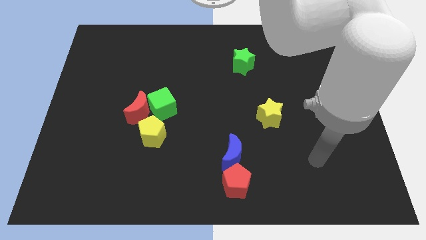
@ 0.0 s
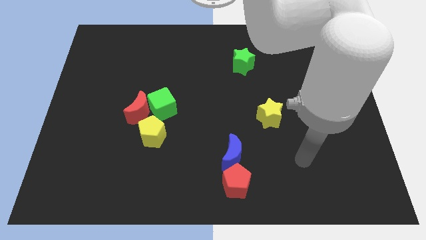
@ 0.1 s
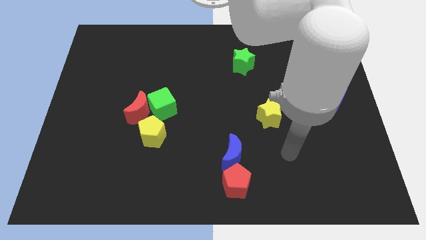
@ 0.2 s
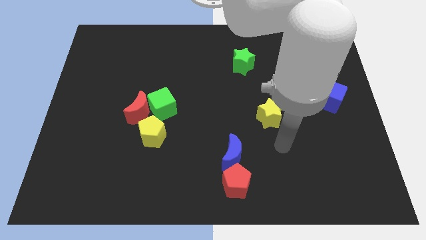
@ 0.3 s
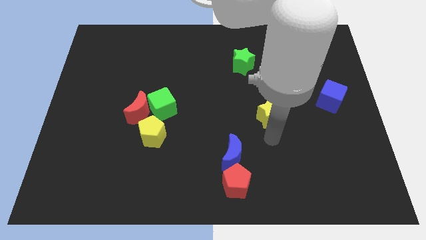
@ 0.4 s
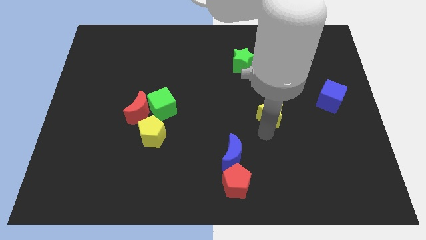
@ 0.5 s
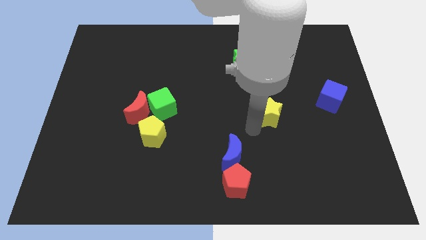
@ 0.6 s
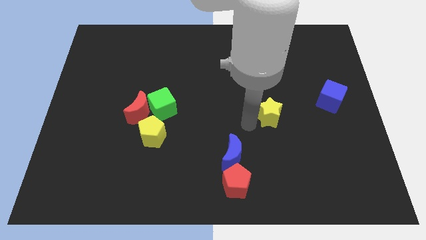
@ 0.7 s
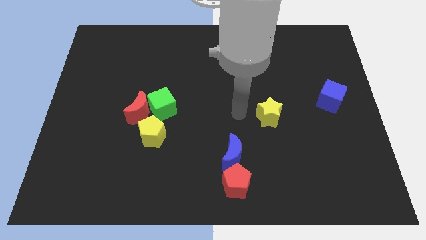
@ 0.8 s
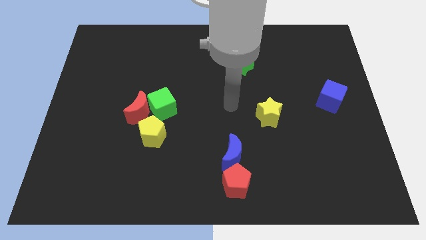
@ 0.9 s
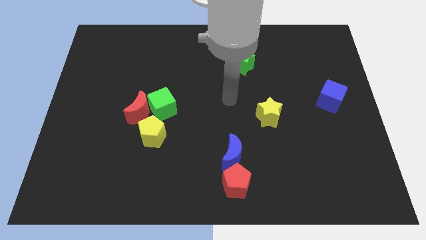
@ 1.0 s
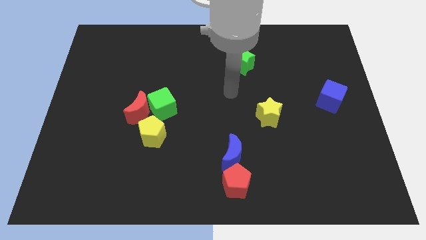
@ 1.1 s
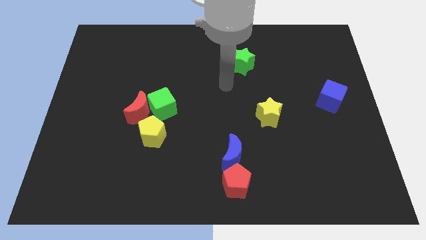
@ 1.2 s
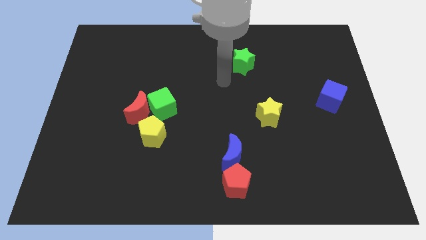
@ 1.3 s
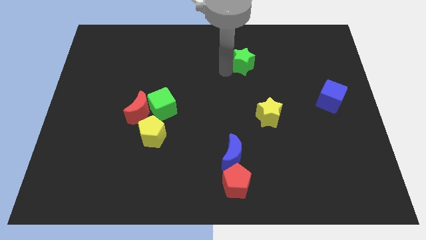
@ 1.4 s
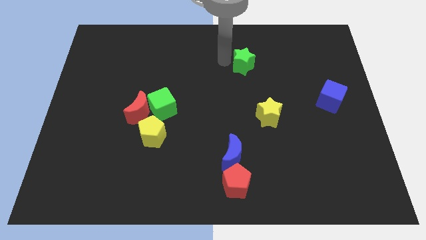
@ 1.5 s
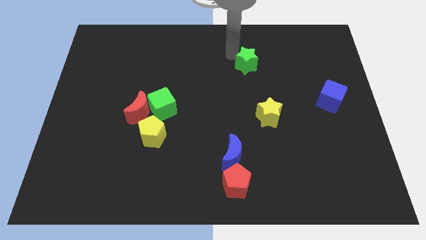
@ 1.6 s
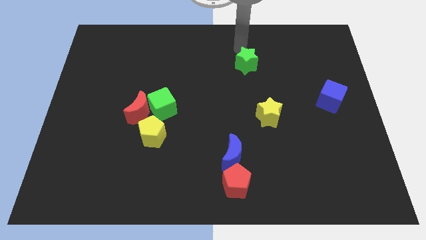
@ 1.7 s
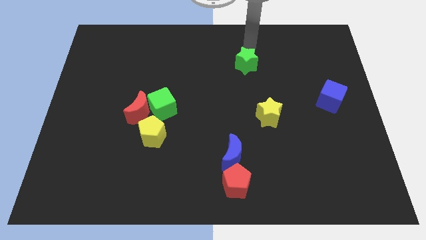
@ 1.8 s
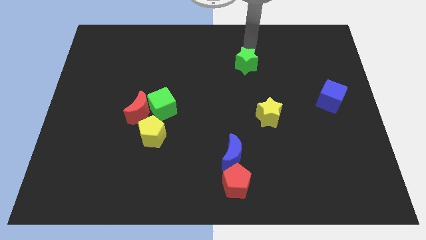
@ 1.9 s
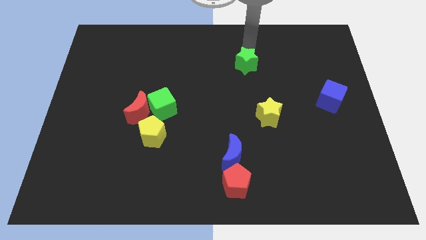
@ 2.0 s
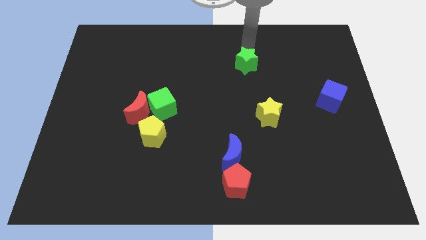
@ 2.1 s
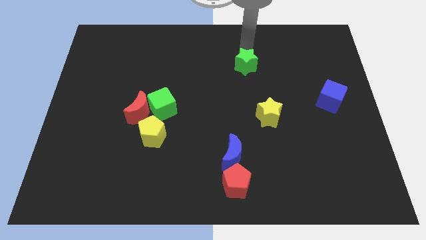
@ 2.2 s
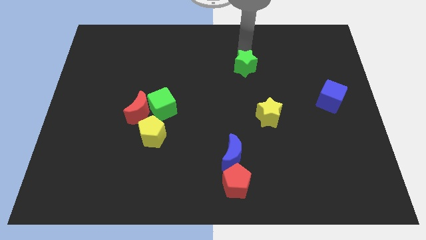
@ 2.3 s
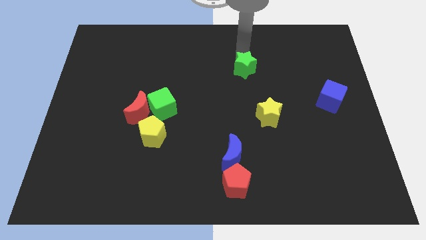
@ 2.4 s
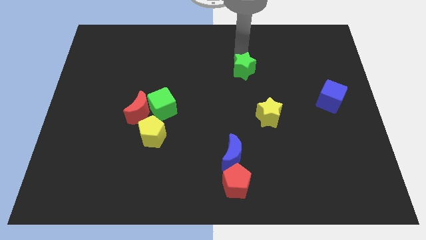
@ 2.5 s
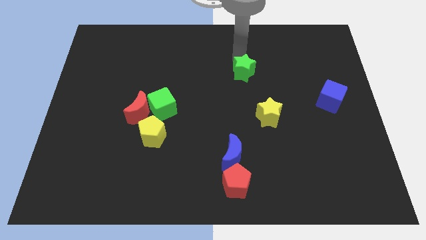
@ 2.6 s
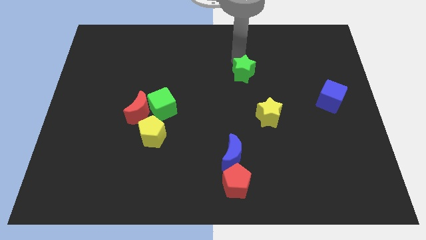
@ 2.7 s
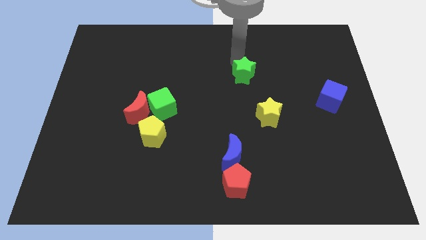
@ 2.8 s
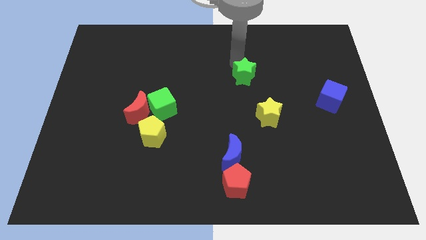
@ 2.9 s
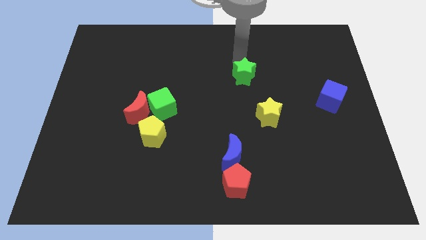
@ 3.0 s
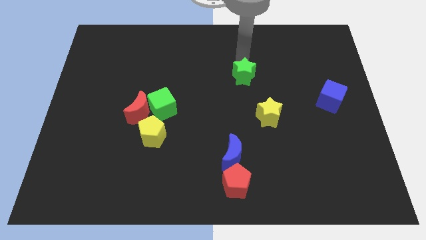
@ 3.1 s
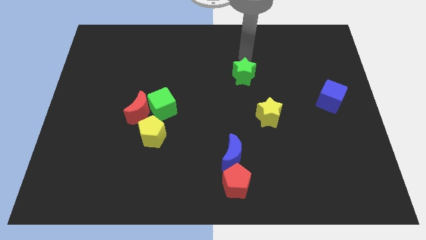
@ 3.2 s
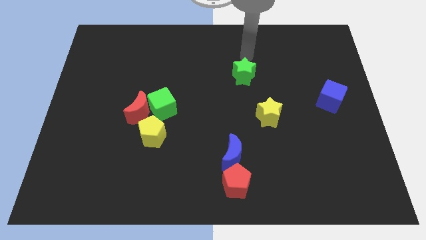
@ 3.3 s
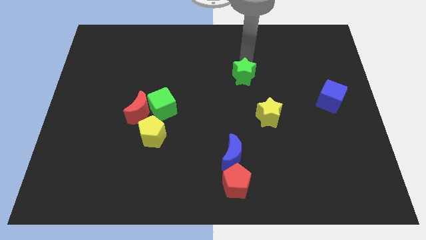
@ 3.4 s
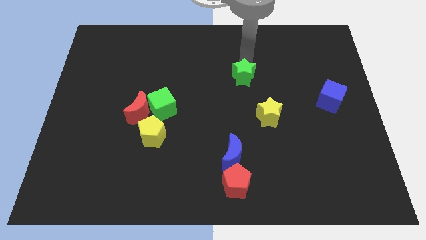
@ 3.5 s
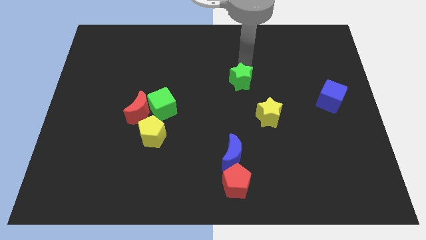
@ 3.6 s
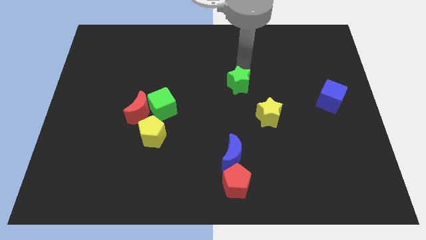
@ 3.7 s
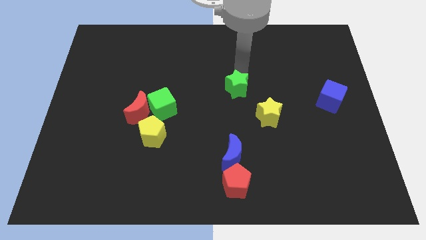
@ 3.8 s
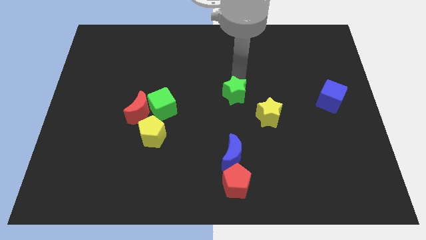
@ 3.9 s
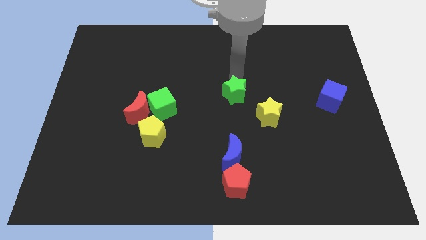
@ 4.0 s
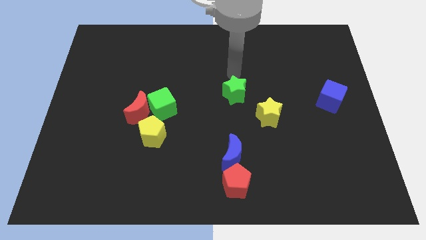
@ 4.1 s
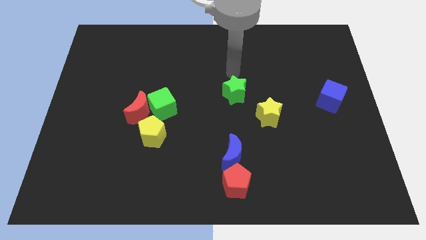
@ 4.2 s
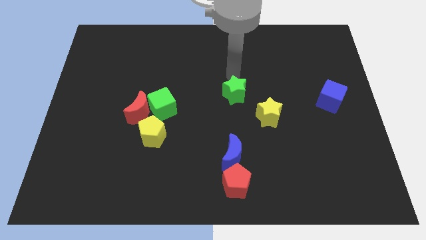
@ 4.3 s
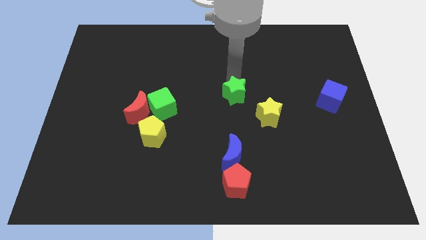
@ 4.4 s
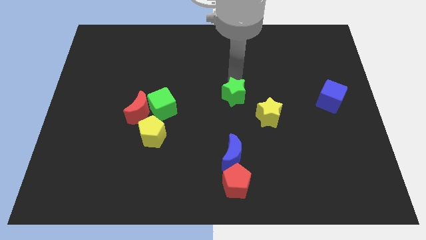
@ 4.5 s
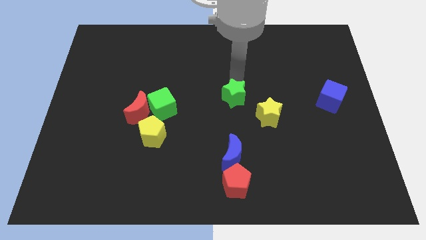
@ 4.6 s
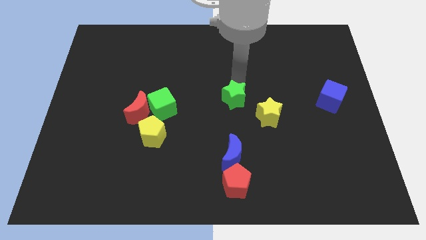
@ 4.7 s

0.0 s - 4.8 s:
move the green star to the top side of the blue moon

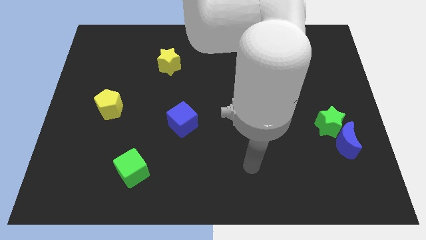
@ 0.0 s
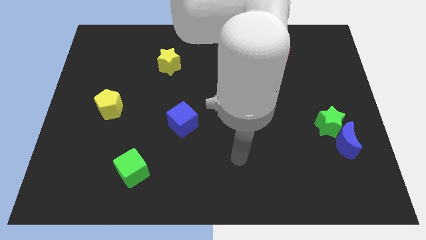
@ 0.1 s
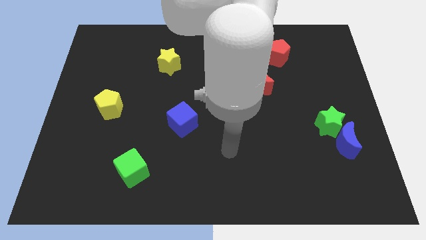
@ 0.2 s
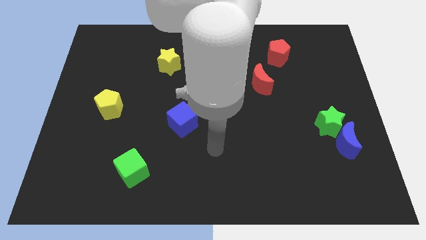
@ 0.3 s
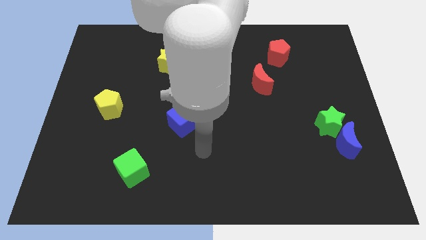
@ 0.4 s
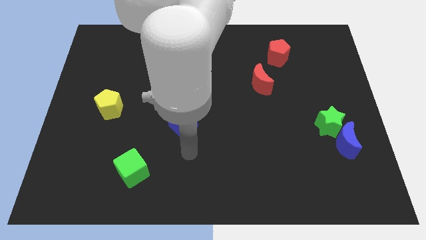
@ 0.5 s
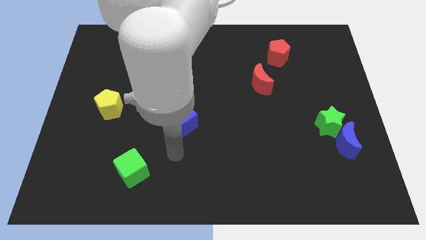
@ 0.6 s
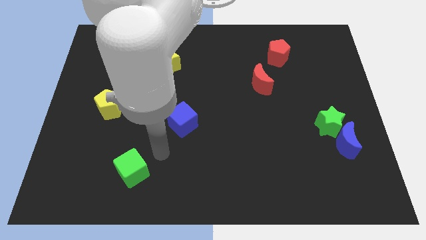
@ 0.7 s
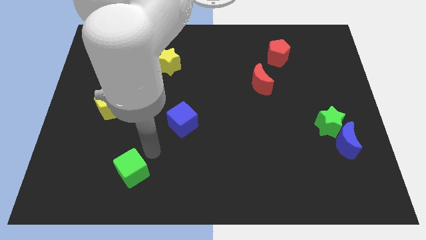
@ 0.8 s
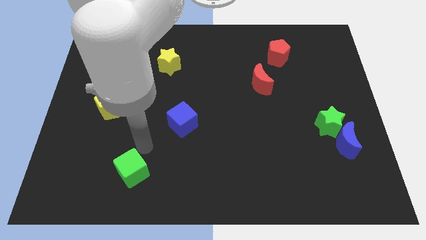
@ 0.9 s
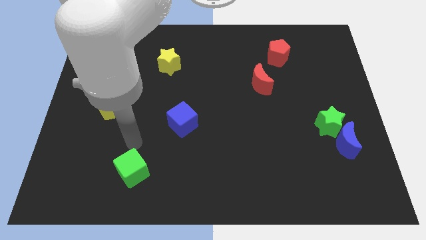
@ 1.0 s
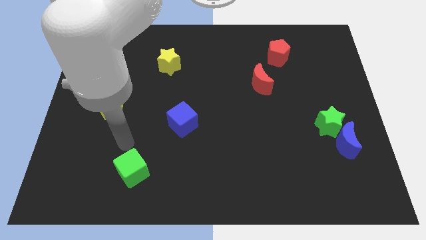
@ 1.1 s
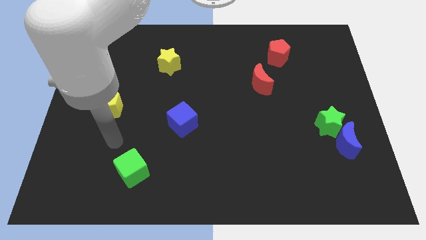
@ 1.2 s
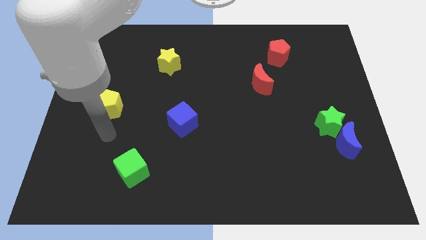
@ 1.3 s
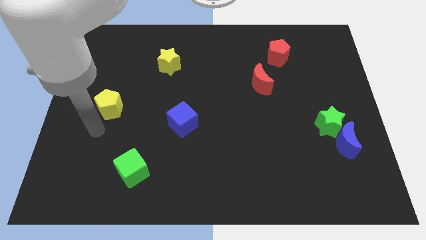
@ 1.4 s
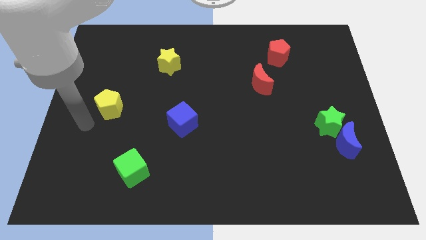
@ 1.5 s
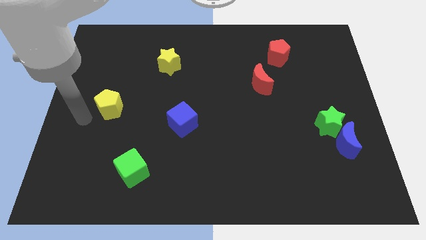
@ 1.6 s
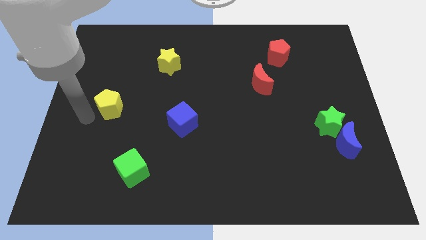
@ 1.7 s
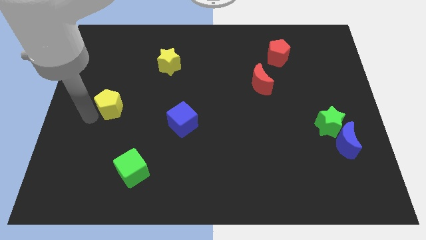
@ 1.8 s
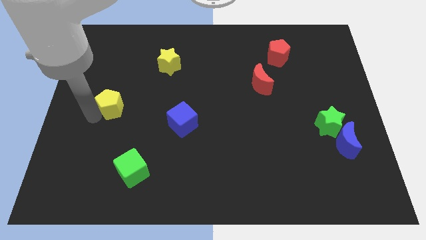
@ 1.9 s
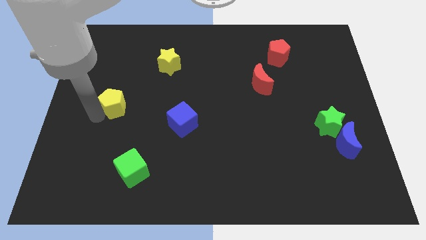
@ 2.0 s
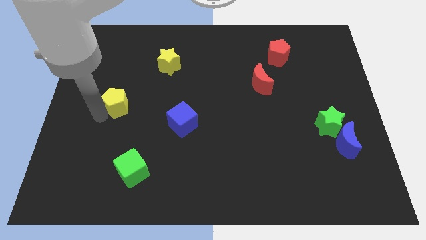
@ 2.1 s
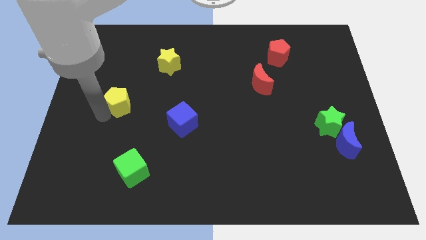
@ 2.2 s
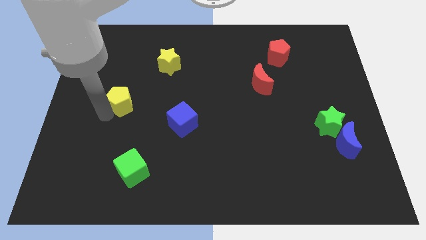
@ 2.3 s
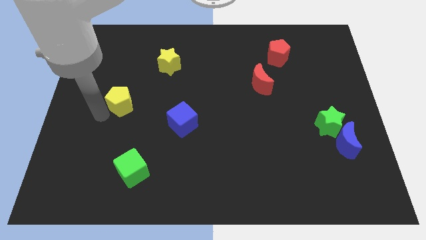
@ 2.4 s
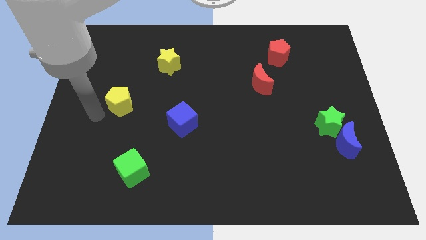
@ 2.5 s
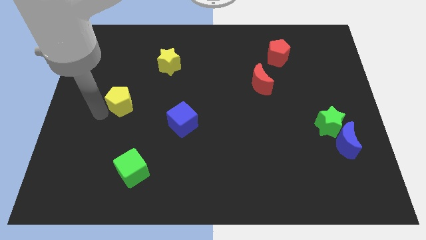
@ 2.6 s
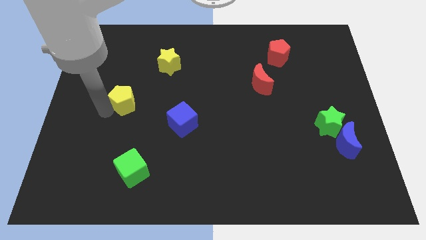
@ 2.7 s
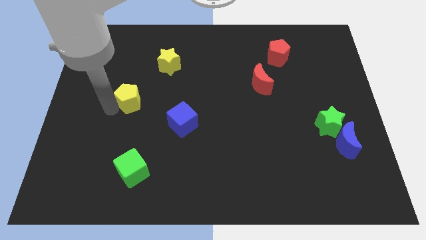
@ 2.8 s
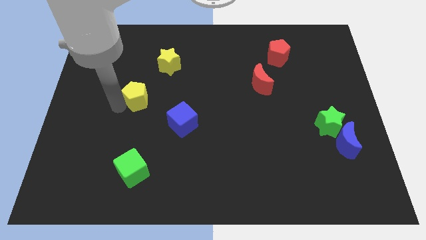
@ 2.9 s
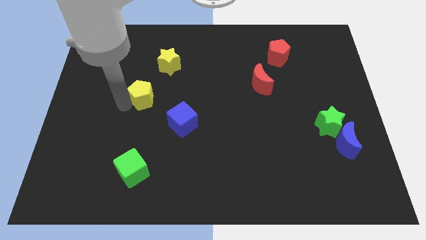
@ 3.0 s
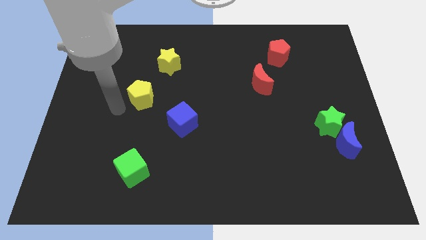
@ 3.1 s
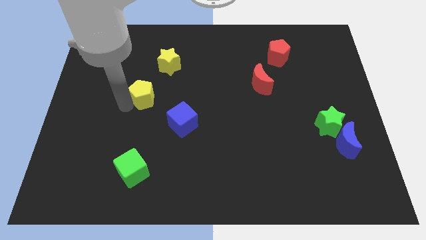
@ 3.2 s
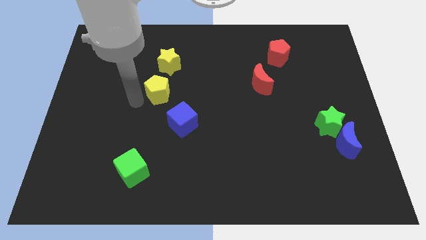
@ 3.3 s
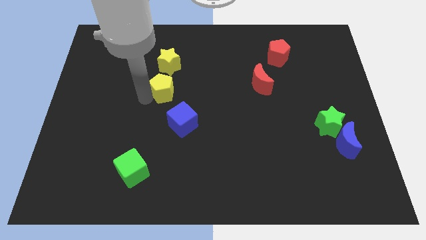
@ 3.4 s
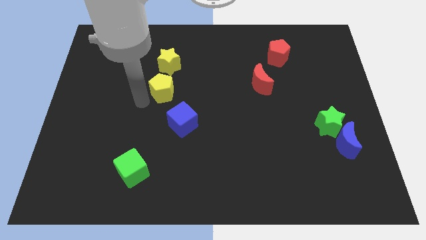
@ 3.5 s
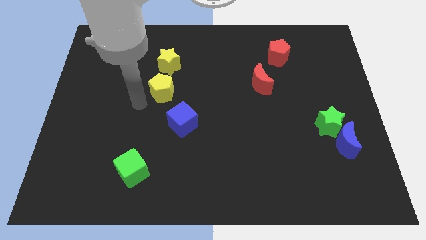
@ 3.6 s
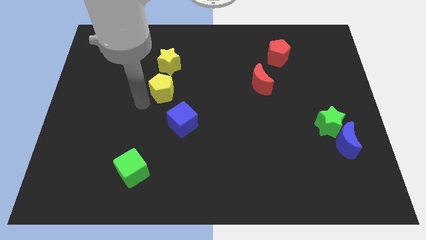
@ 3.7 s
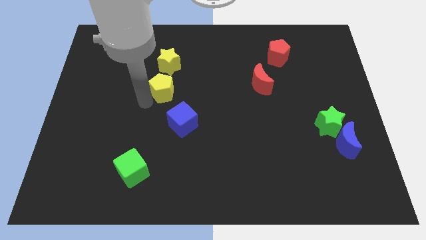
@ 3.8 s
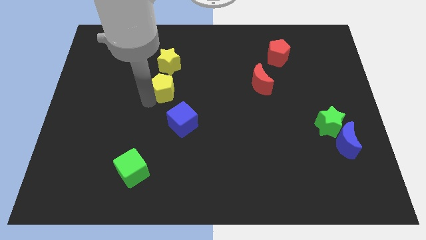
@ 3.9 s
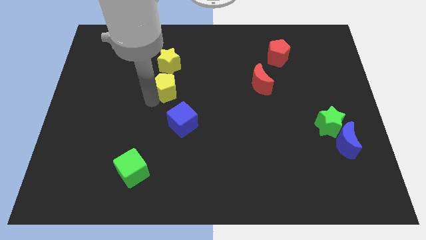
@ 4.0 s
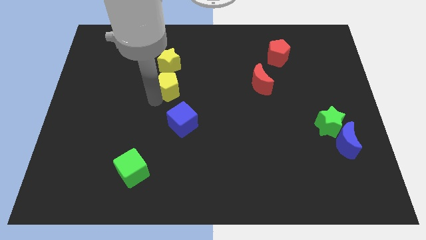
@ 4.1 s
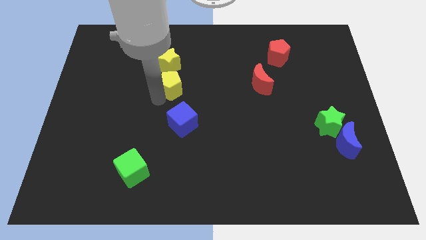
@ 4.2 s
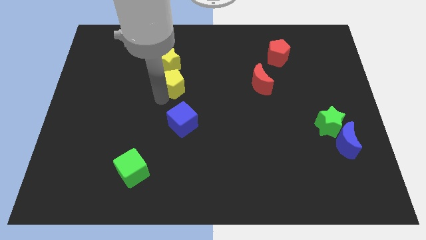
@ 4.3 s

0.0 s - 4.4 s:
push the yellow pentagon to the bottom right side of the yellow star
